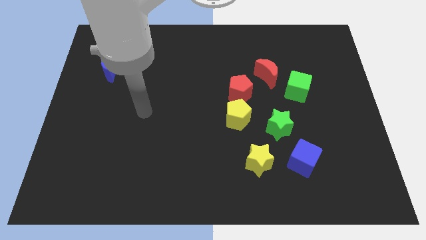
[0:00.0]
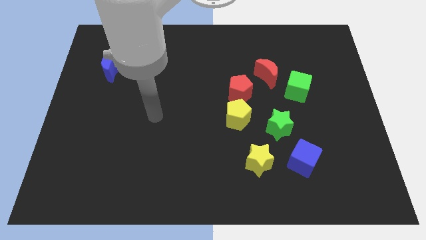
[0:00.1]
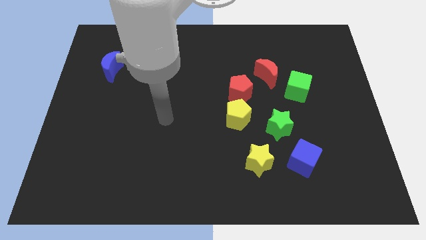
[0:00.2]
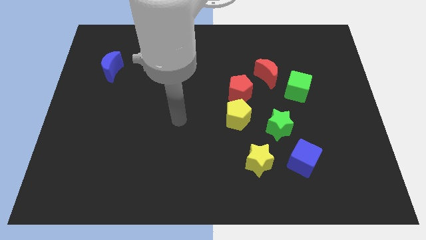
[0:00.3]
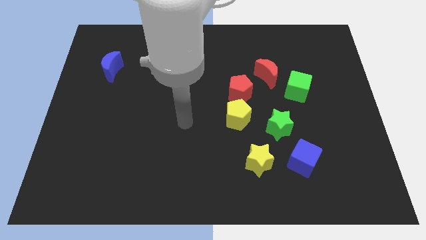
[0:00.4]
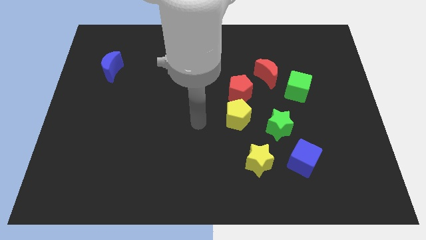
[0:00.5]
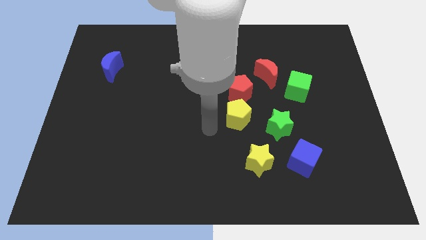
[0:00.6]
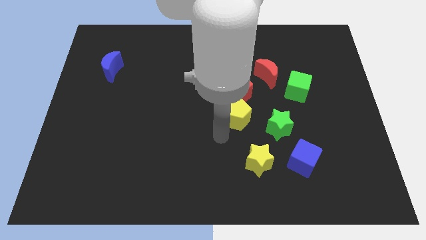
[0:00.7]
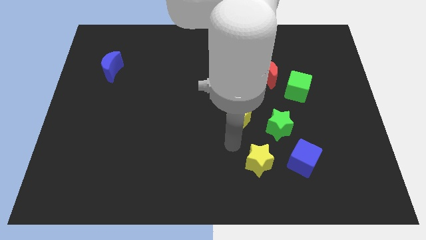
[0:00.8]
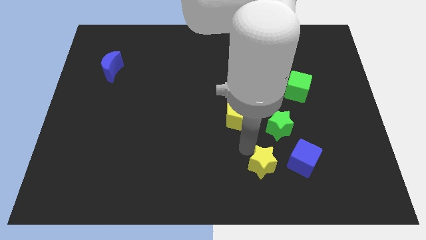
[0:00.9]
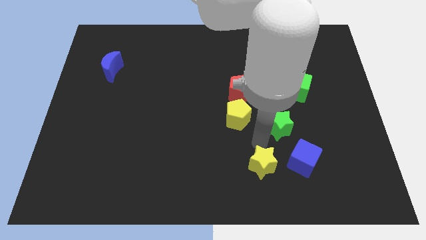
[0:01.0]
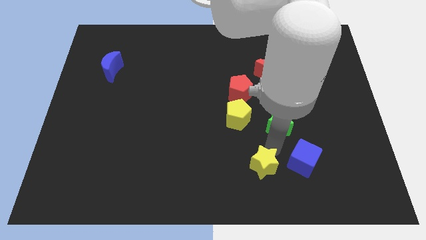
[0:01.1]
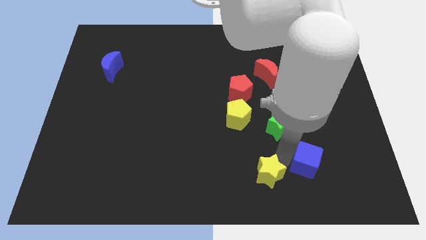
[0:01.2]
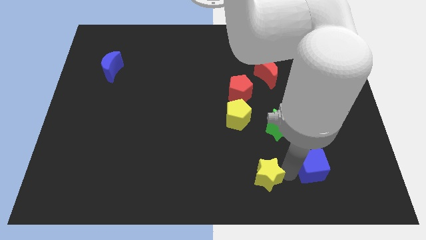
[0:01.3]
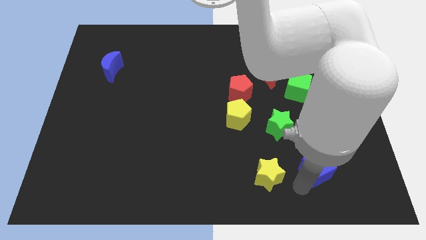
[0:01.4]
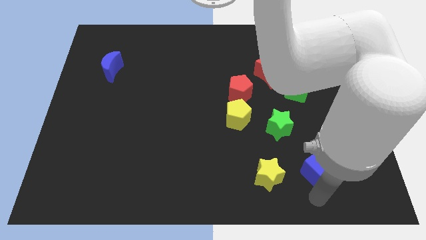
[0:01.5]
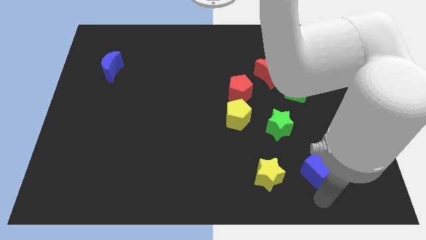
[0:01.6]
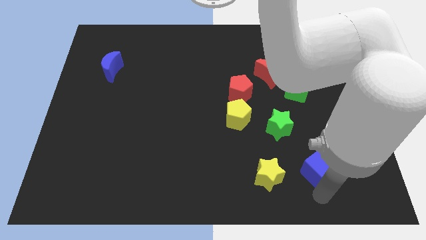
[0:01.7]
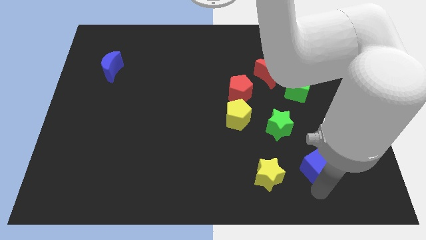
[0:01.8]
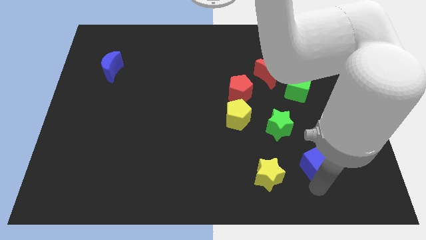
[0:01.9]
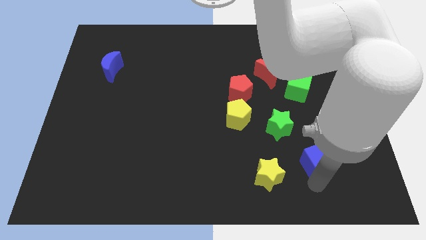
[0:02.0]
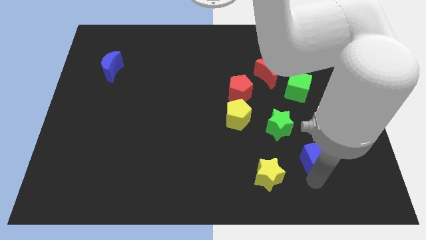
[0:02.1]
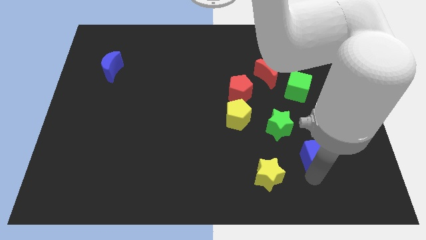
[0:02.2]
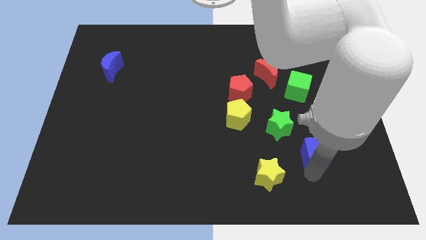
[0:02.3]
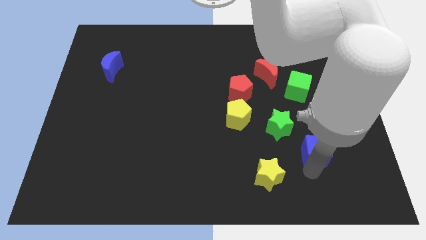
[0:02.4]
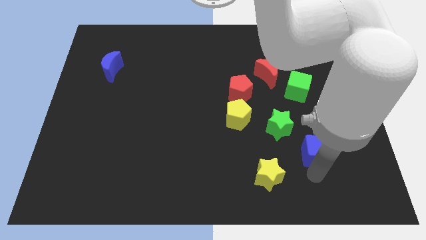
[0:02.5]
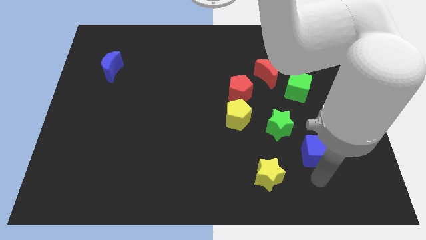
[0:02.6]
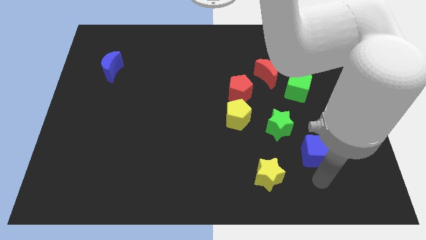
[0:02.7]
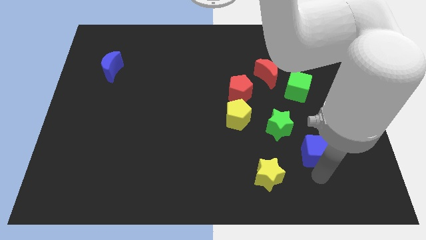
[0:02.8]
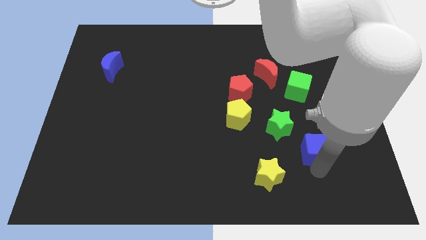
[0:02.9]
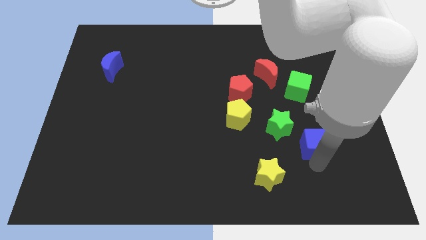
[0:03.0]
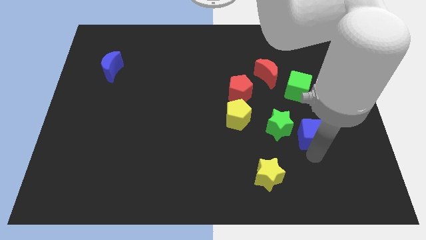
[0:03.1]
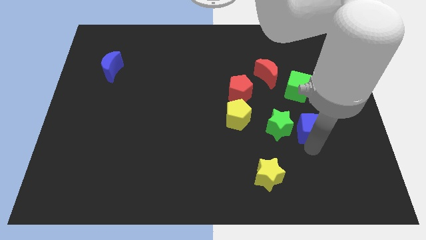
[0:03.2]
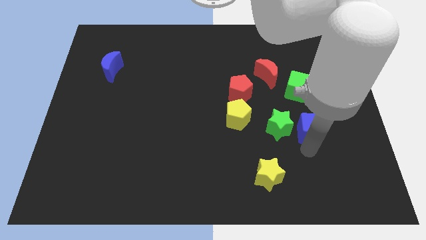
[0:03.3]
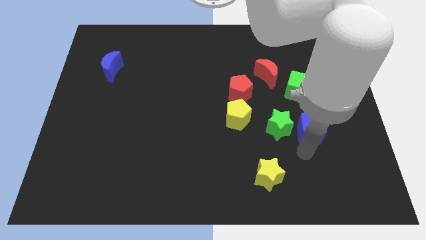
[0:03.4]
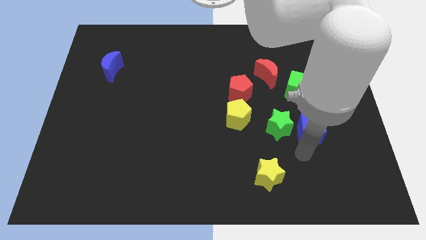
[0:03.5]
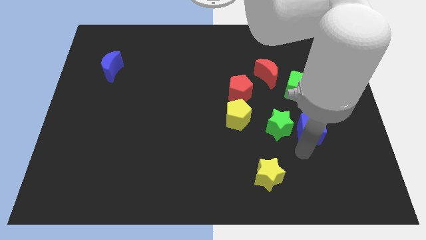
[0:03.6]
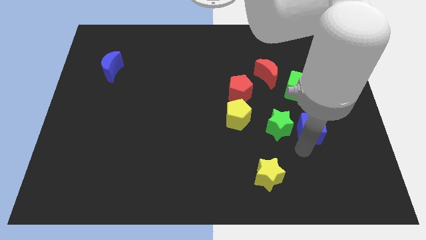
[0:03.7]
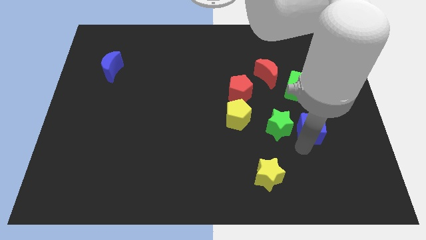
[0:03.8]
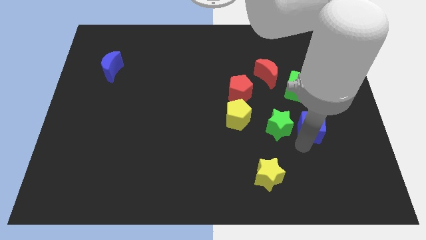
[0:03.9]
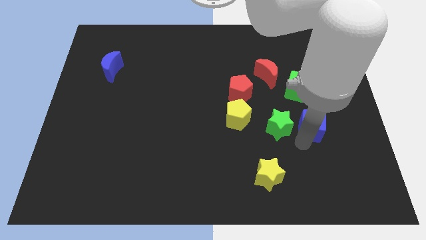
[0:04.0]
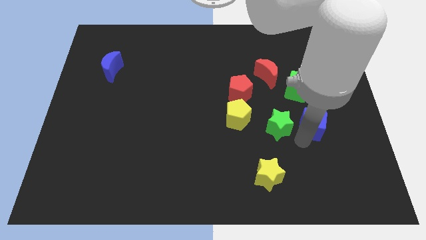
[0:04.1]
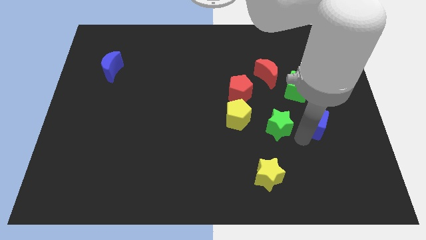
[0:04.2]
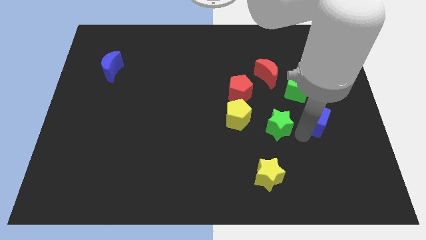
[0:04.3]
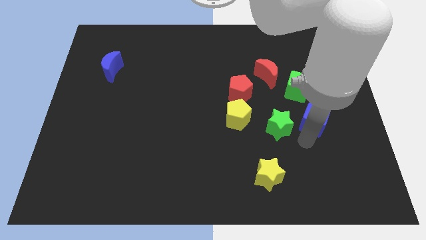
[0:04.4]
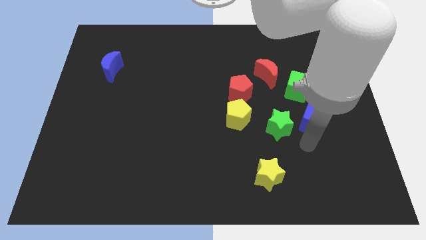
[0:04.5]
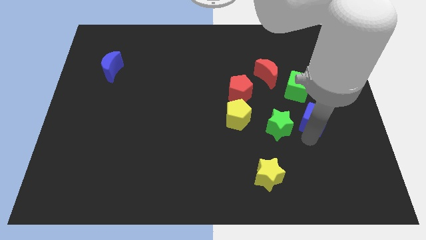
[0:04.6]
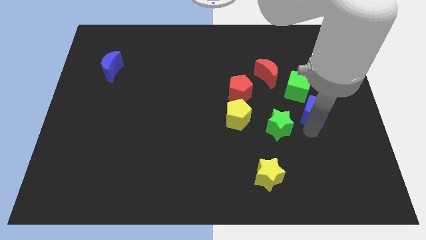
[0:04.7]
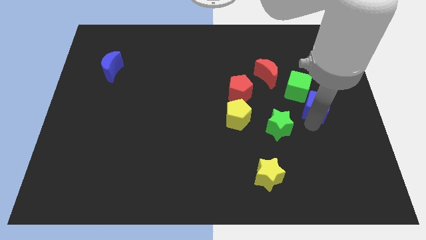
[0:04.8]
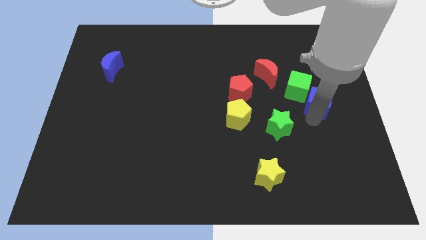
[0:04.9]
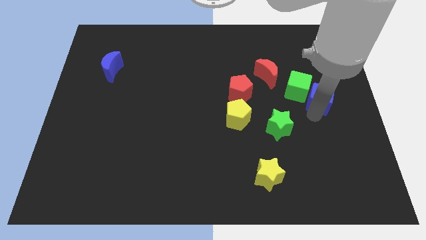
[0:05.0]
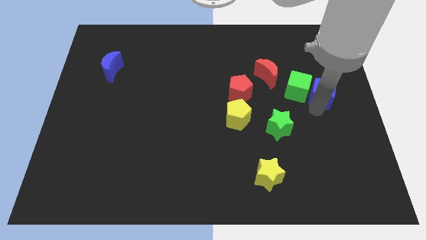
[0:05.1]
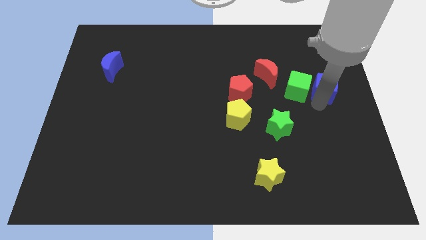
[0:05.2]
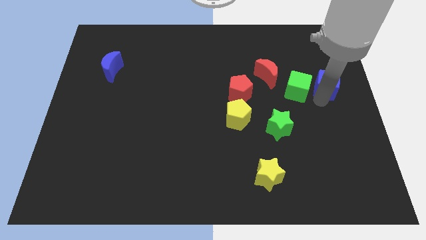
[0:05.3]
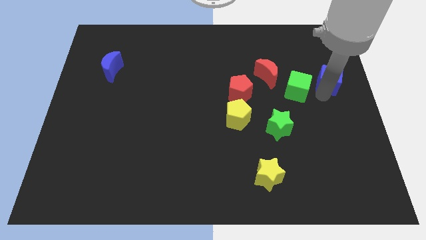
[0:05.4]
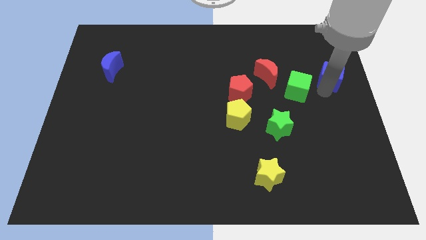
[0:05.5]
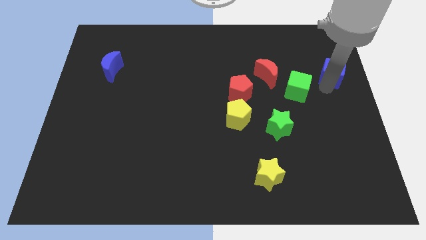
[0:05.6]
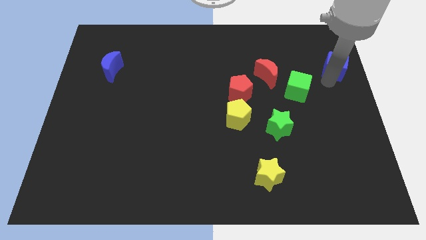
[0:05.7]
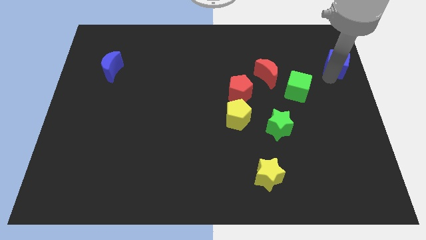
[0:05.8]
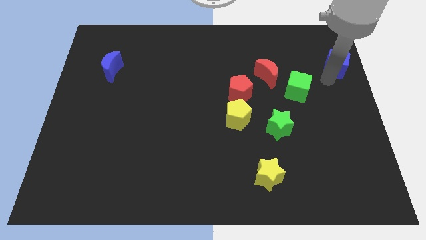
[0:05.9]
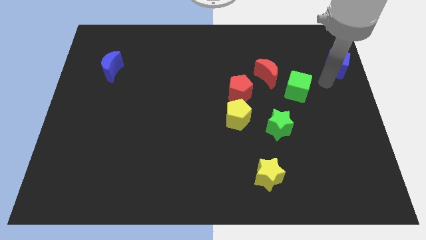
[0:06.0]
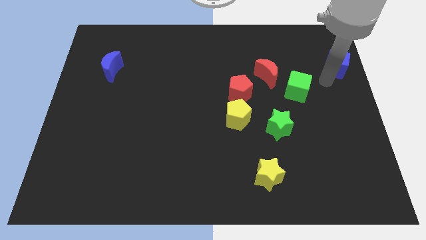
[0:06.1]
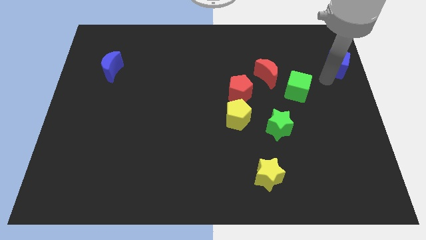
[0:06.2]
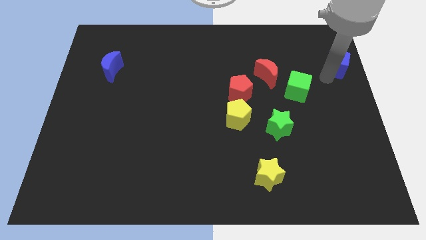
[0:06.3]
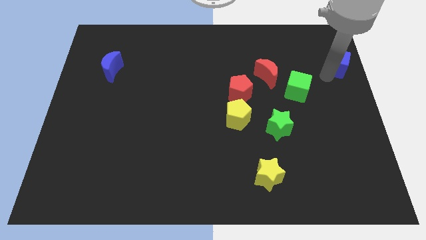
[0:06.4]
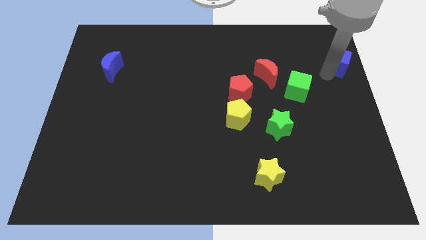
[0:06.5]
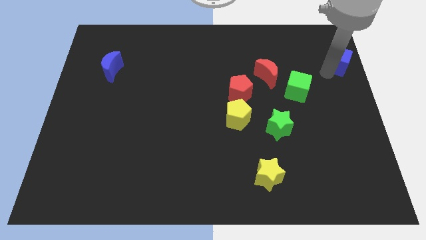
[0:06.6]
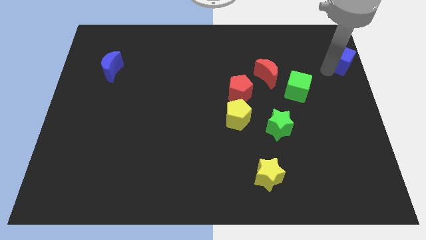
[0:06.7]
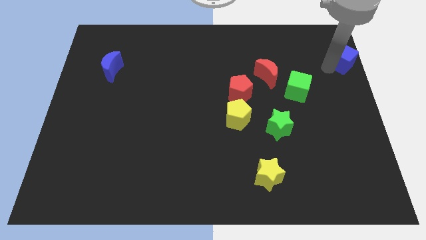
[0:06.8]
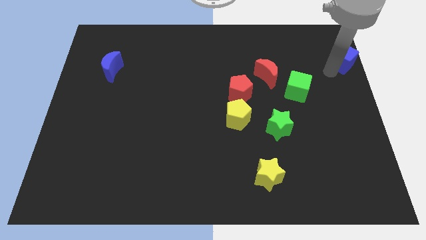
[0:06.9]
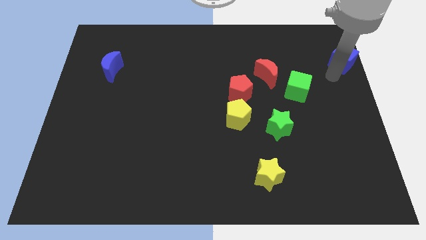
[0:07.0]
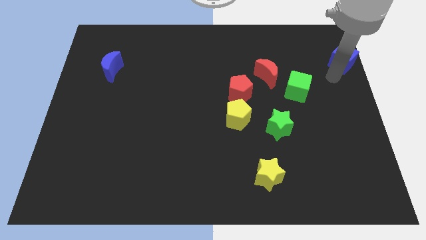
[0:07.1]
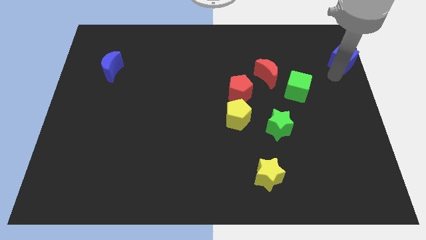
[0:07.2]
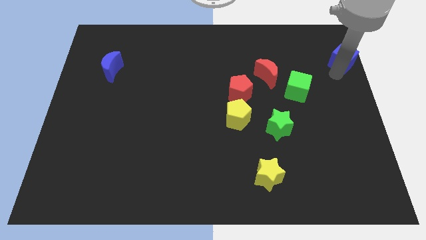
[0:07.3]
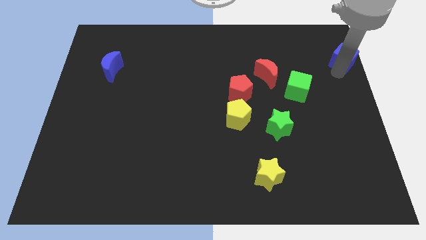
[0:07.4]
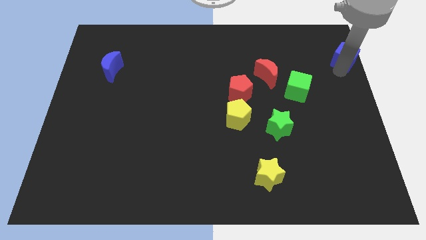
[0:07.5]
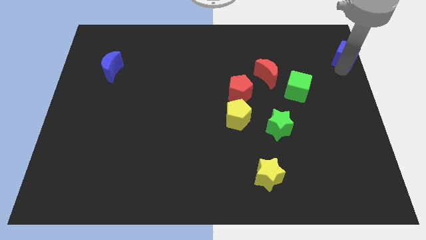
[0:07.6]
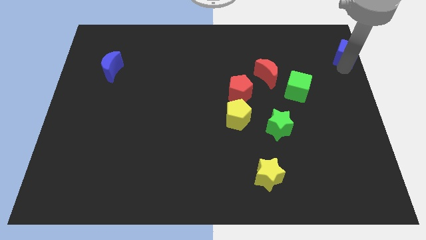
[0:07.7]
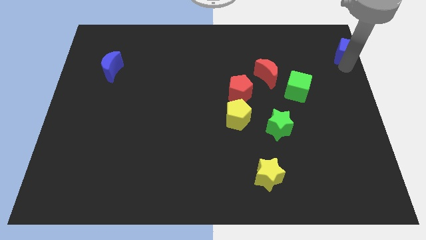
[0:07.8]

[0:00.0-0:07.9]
move the blue cube to the top right
